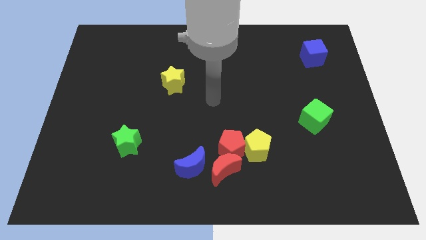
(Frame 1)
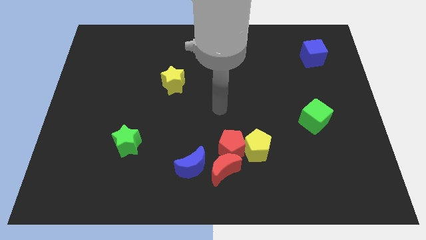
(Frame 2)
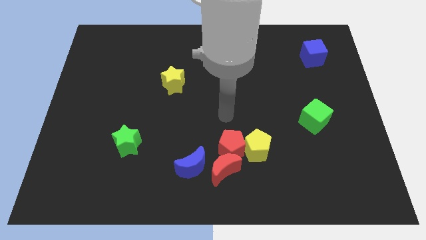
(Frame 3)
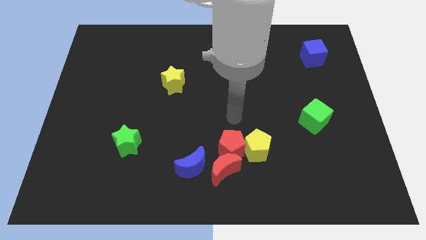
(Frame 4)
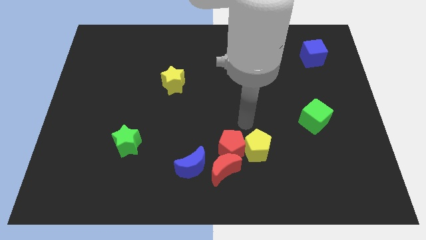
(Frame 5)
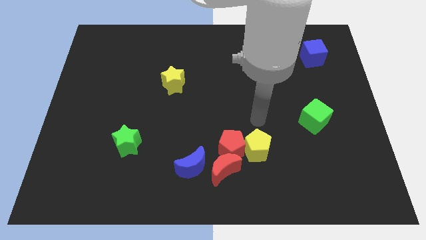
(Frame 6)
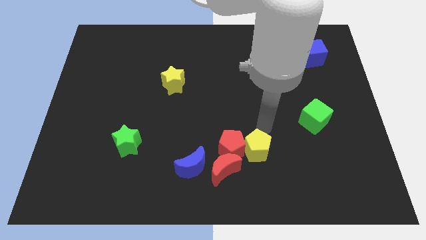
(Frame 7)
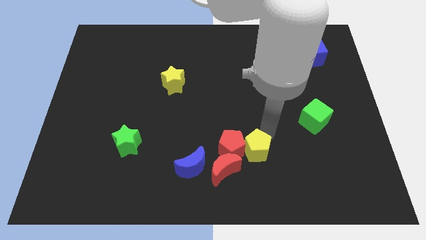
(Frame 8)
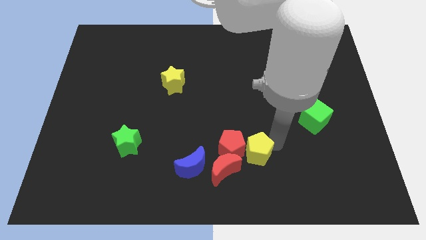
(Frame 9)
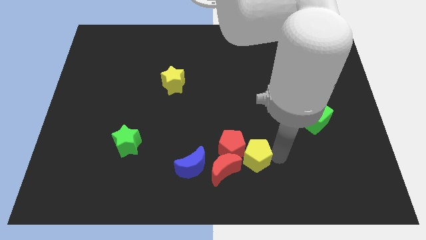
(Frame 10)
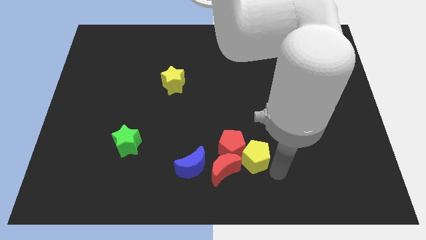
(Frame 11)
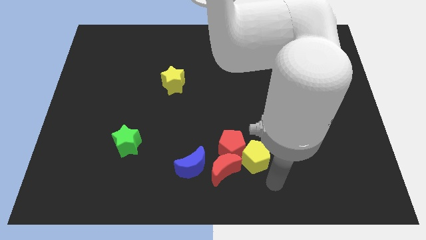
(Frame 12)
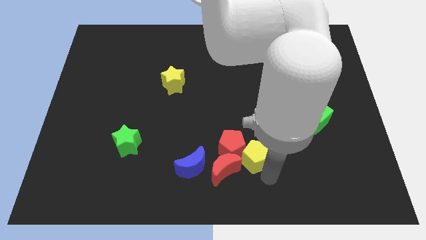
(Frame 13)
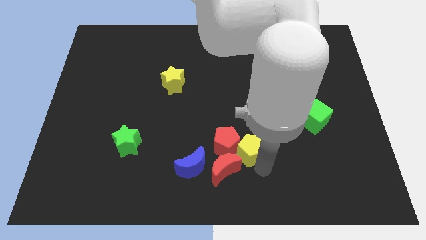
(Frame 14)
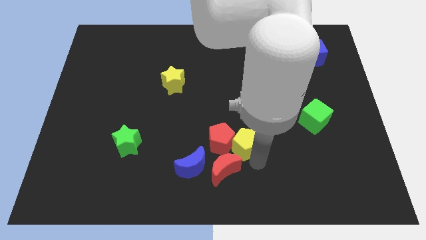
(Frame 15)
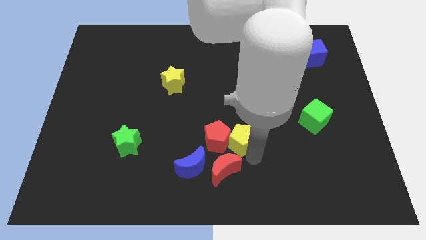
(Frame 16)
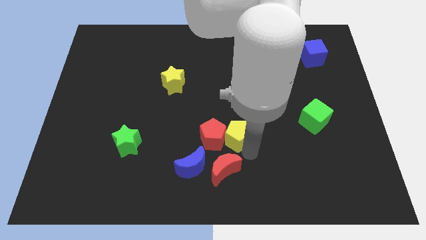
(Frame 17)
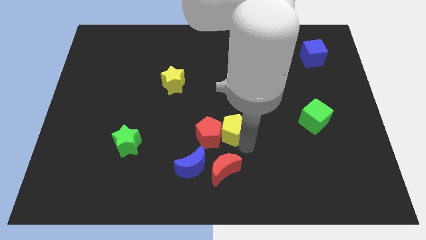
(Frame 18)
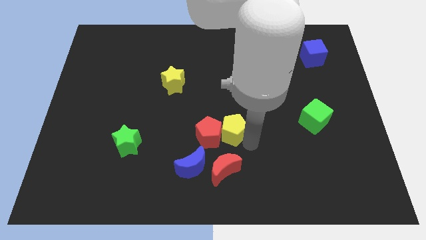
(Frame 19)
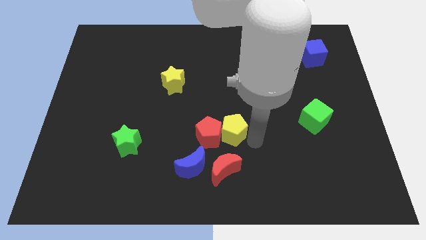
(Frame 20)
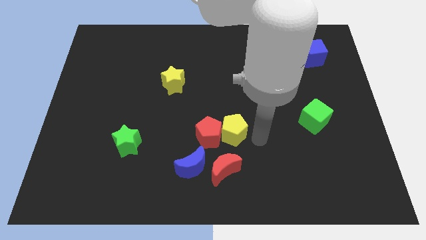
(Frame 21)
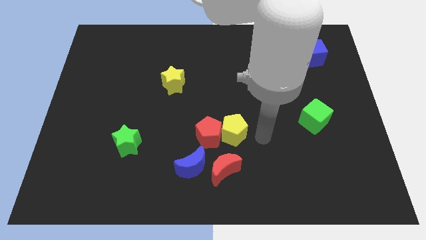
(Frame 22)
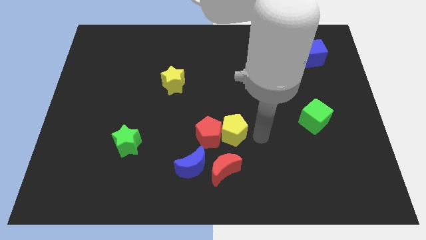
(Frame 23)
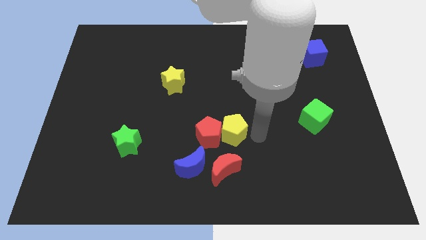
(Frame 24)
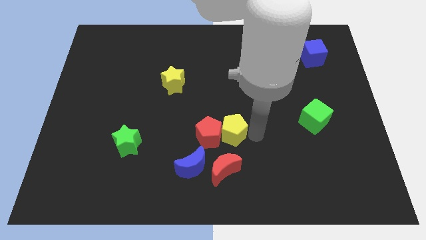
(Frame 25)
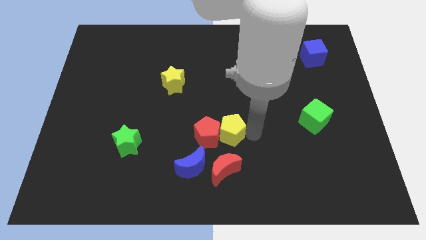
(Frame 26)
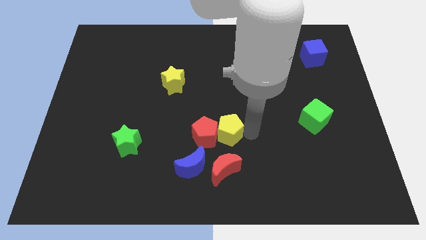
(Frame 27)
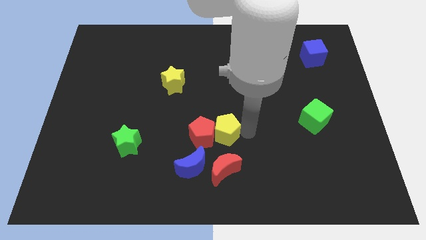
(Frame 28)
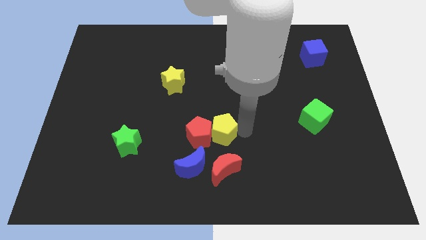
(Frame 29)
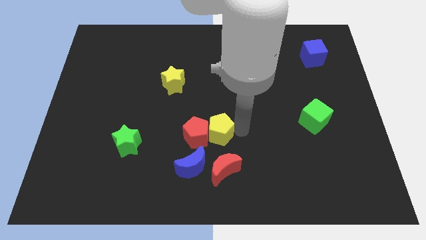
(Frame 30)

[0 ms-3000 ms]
move the yellow pentagon to the left a little bit

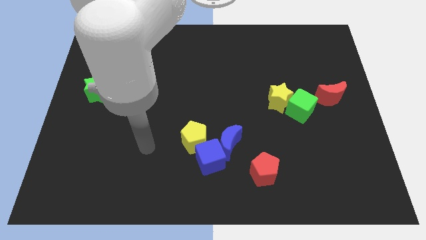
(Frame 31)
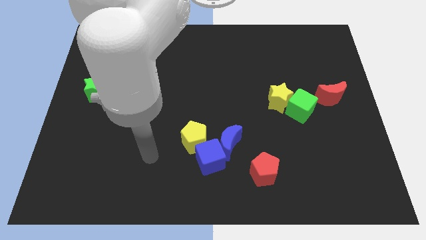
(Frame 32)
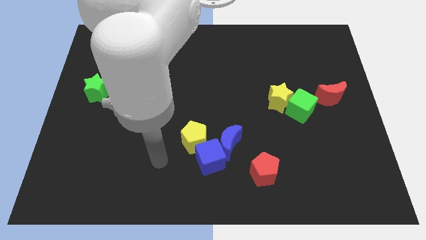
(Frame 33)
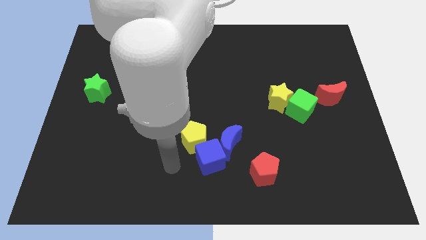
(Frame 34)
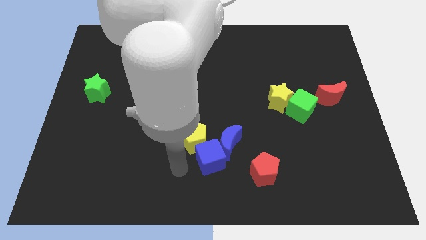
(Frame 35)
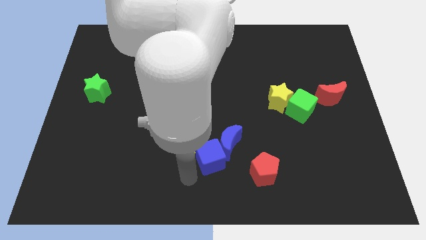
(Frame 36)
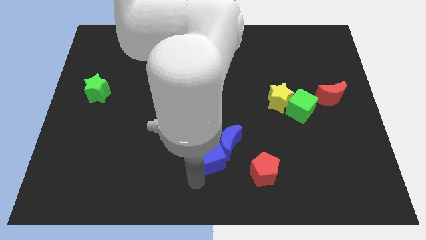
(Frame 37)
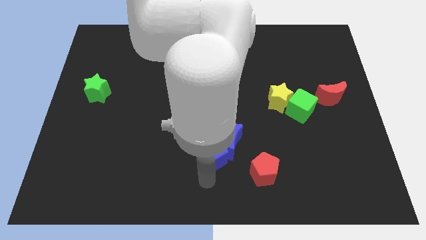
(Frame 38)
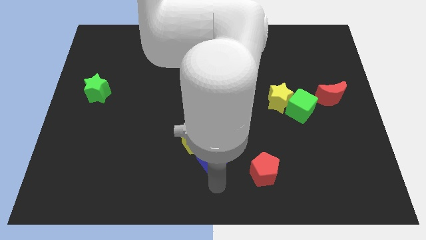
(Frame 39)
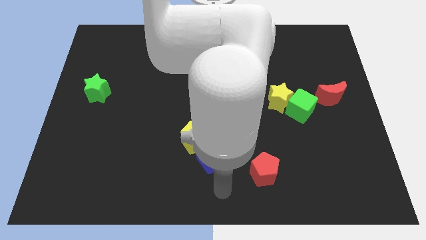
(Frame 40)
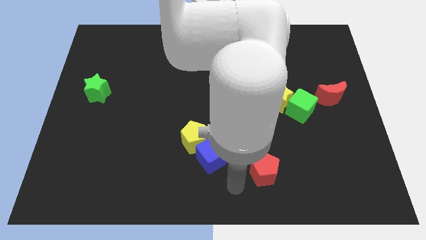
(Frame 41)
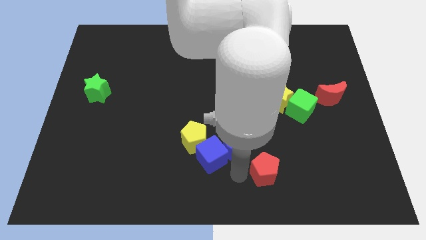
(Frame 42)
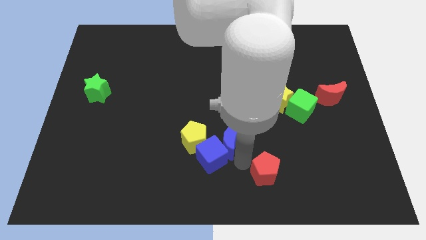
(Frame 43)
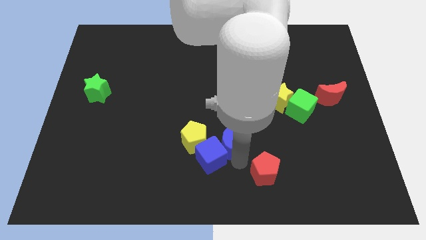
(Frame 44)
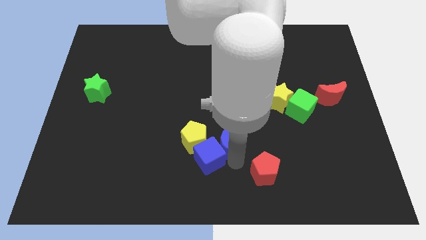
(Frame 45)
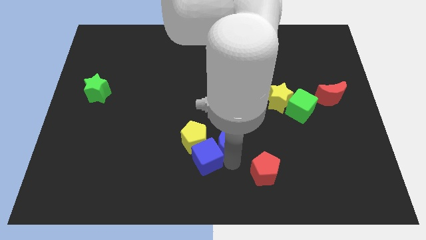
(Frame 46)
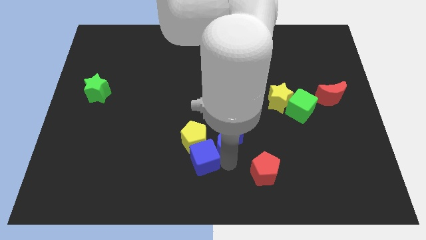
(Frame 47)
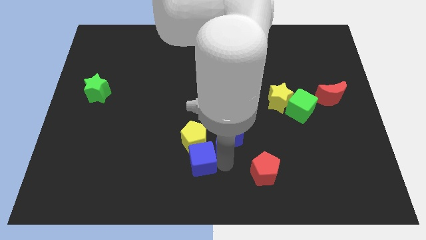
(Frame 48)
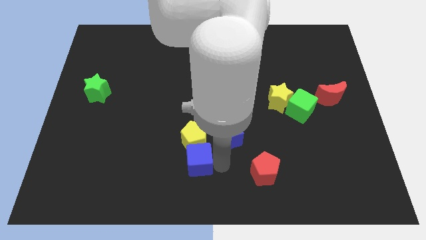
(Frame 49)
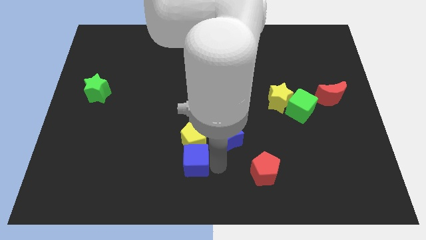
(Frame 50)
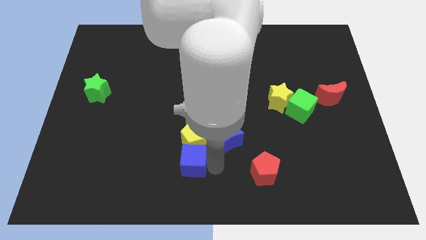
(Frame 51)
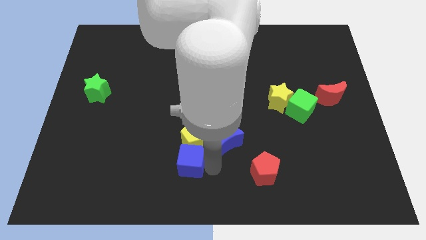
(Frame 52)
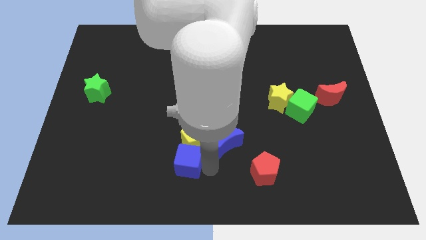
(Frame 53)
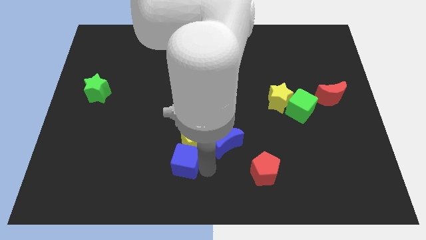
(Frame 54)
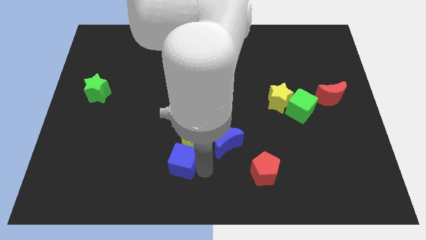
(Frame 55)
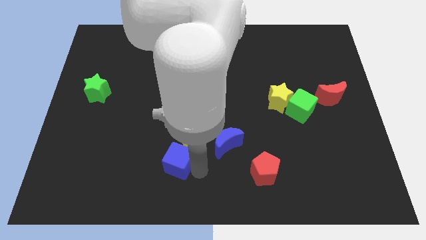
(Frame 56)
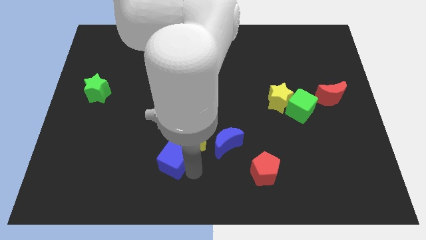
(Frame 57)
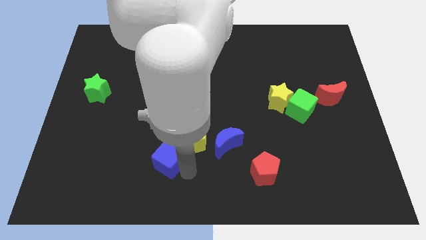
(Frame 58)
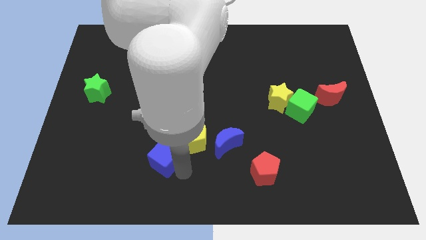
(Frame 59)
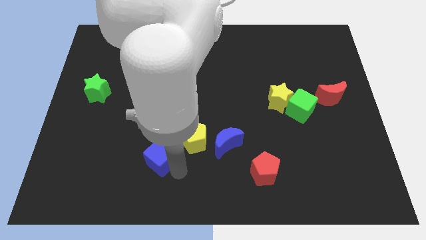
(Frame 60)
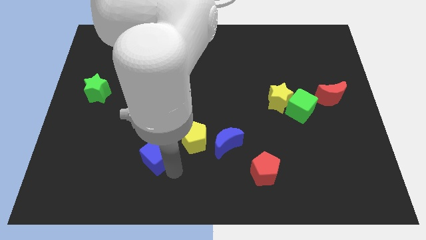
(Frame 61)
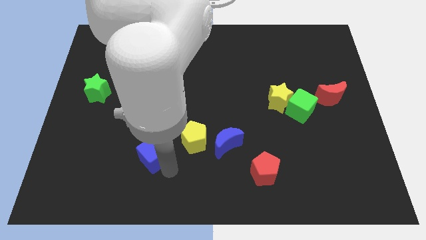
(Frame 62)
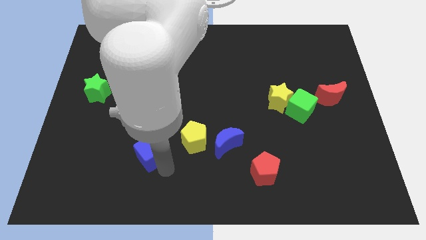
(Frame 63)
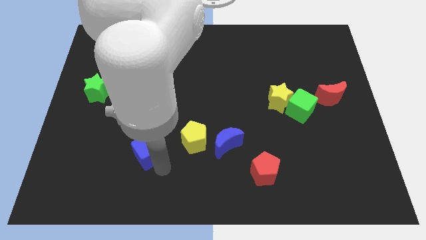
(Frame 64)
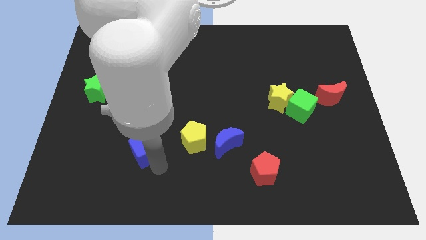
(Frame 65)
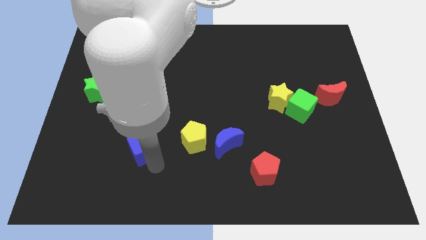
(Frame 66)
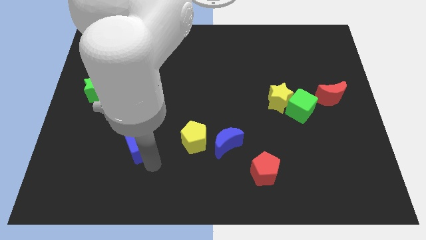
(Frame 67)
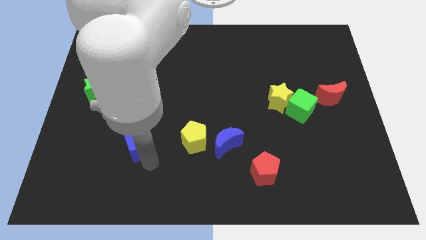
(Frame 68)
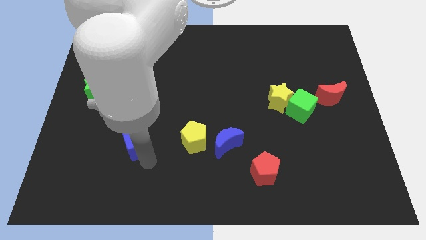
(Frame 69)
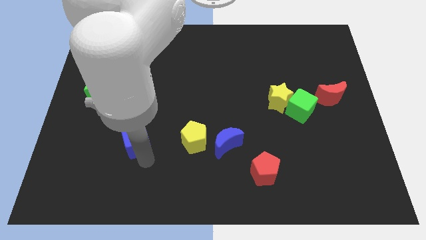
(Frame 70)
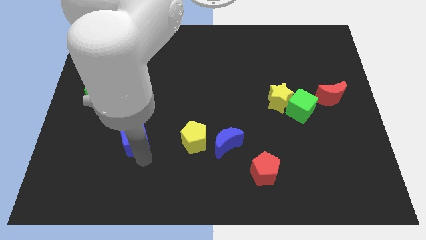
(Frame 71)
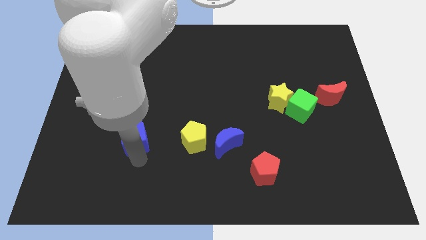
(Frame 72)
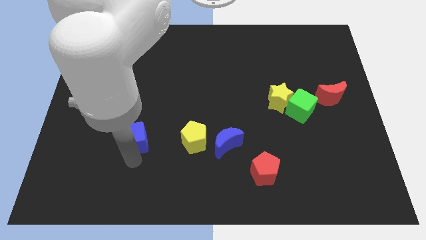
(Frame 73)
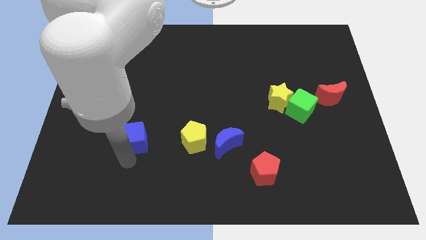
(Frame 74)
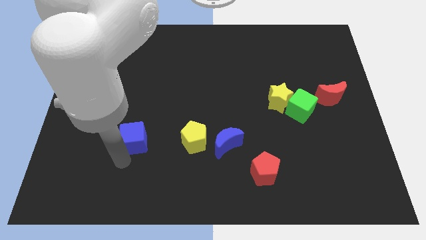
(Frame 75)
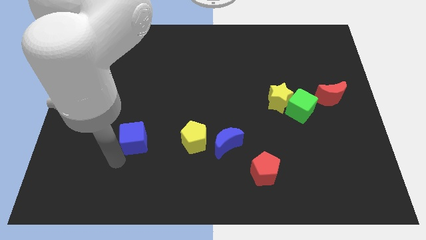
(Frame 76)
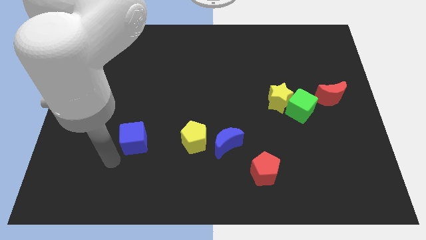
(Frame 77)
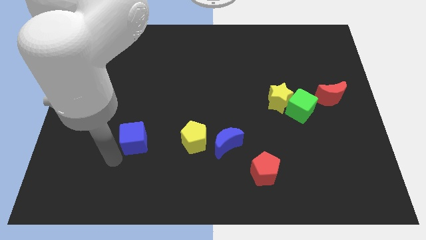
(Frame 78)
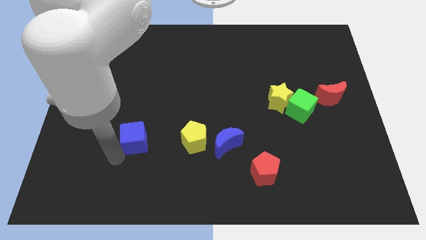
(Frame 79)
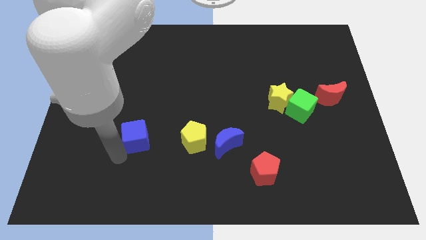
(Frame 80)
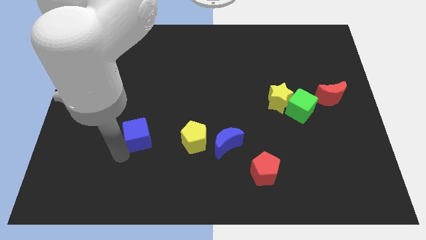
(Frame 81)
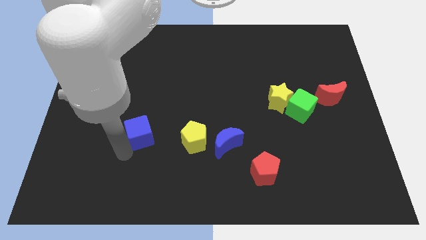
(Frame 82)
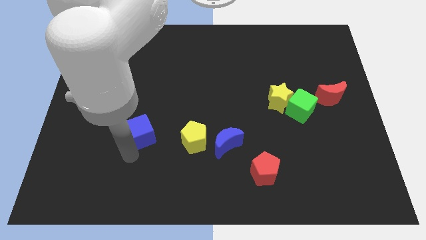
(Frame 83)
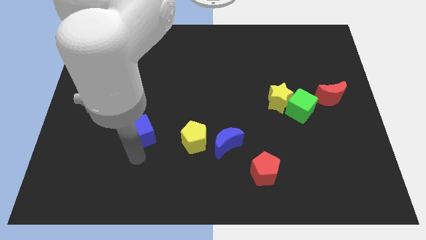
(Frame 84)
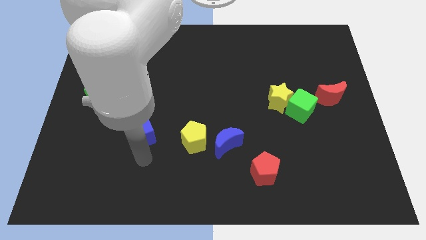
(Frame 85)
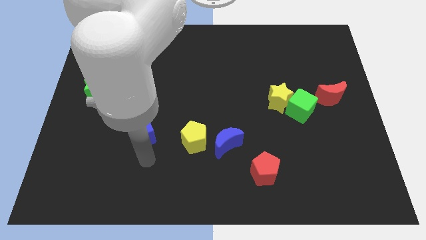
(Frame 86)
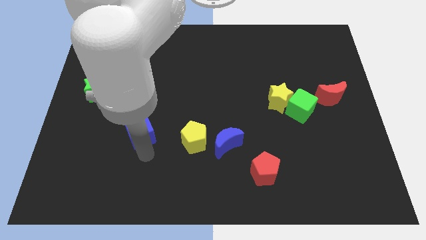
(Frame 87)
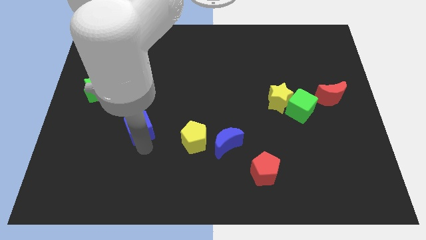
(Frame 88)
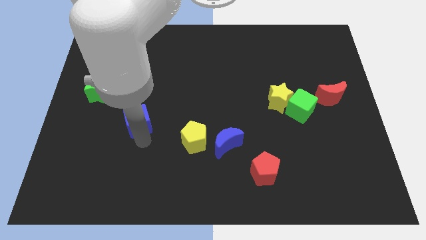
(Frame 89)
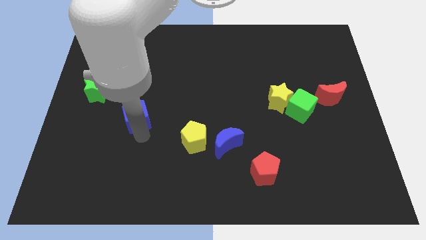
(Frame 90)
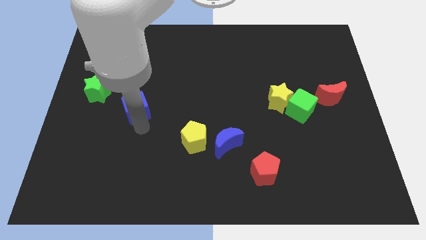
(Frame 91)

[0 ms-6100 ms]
move the blue cube diagonally upwards and to the left
